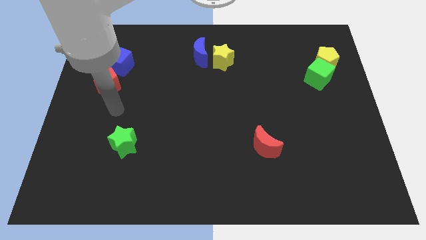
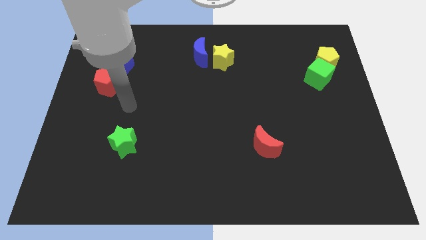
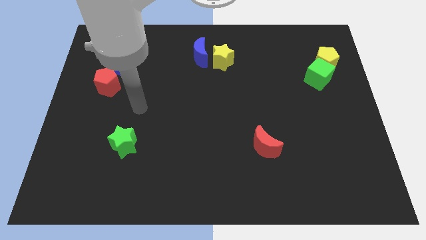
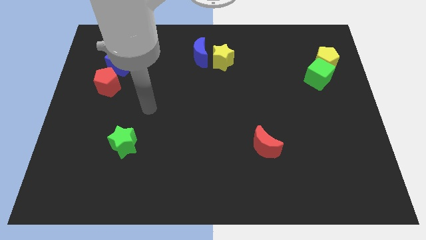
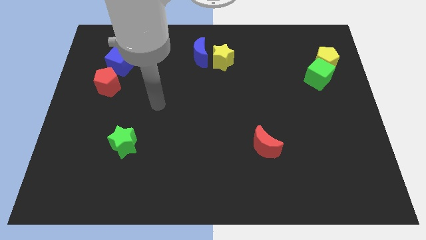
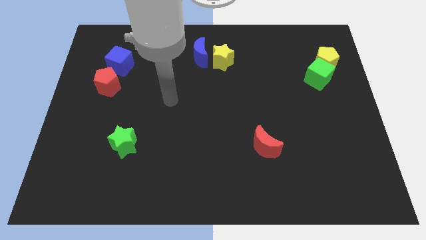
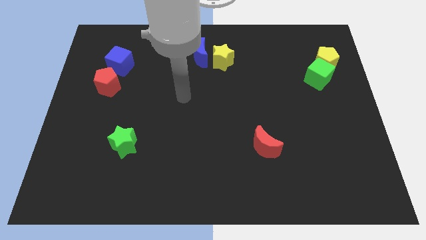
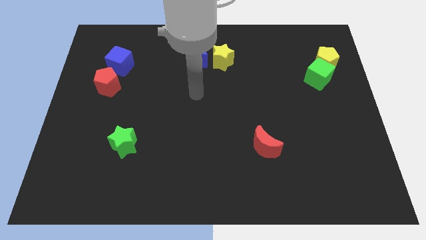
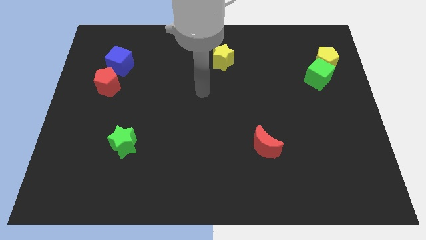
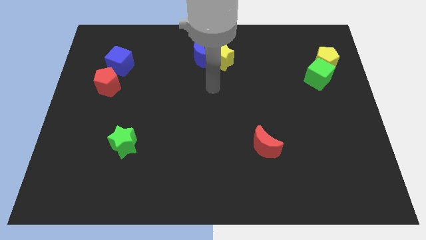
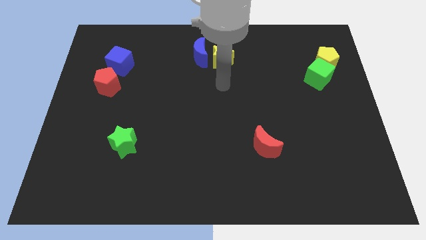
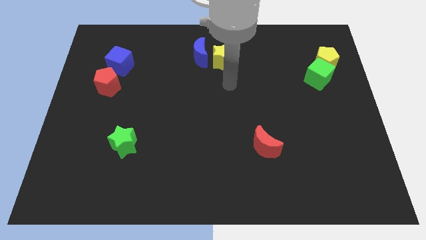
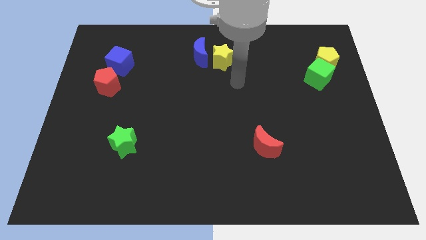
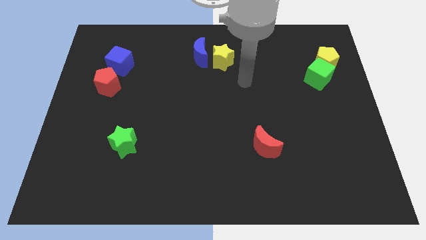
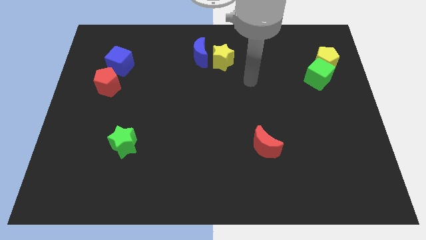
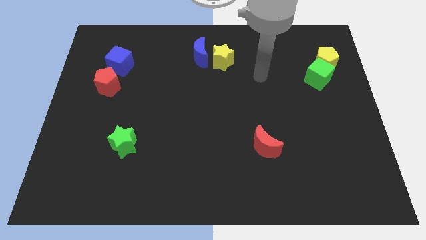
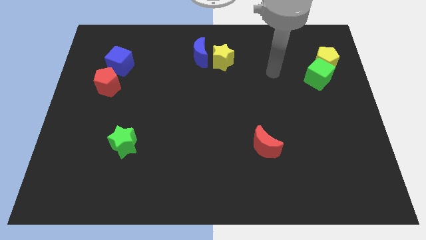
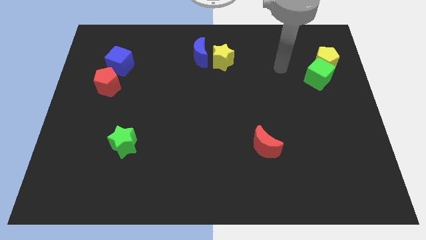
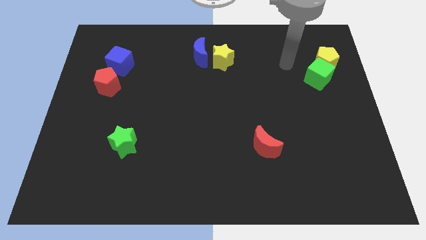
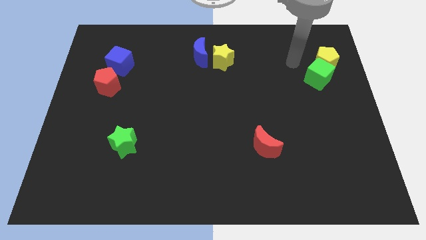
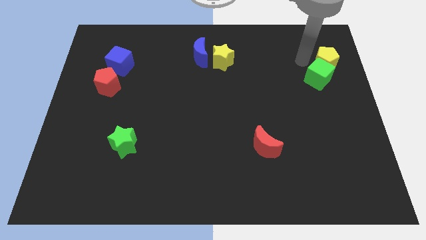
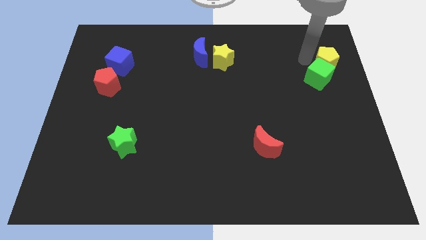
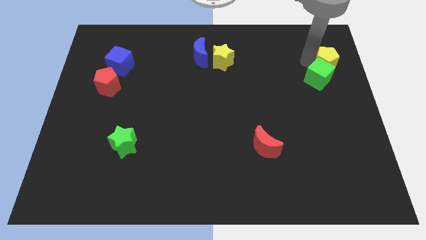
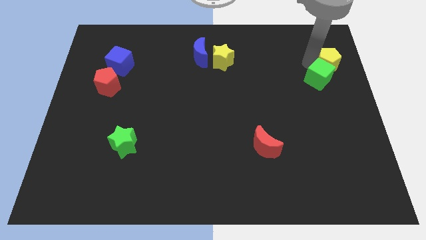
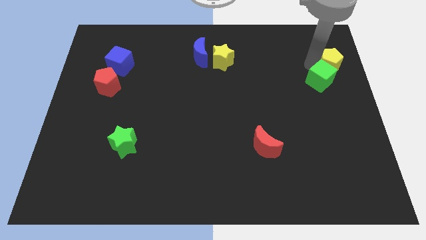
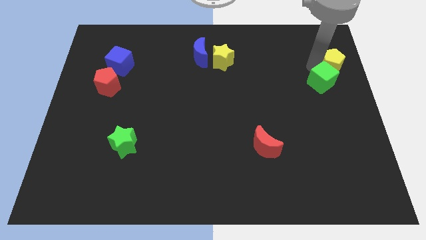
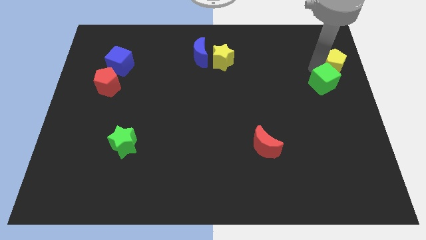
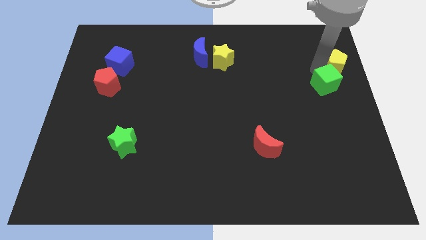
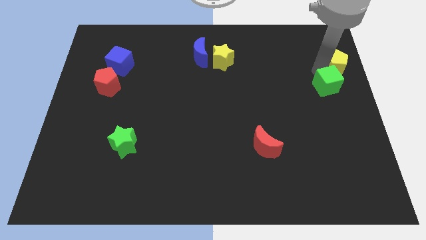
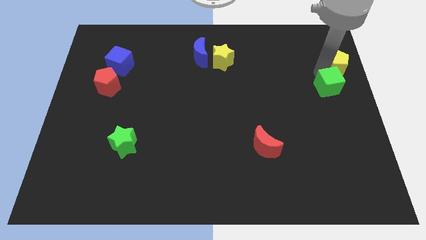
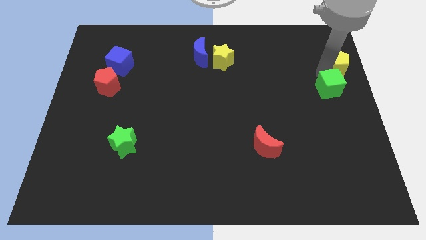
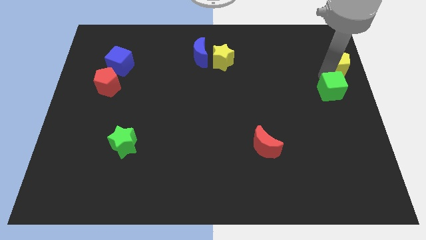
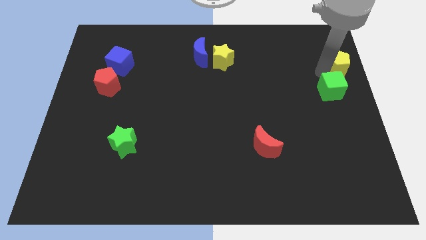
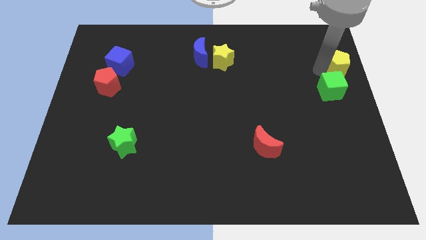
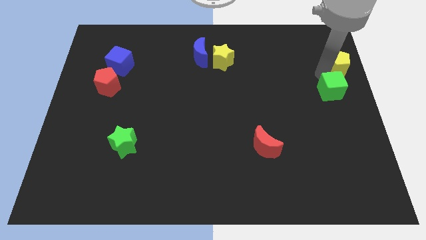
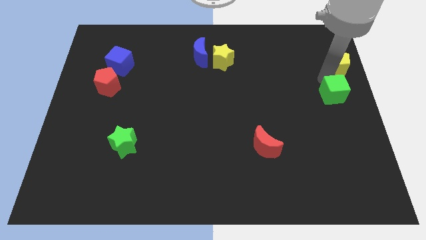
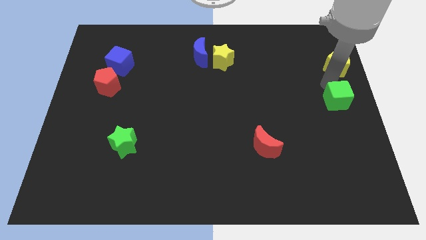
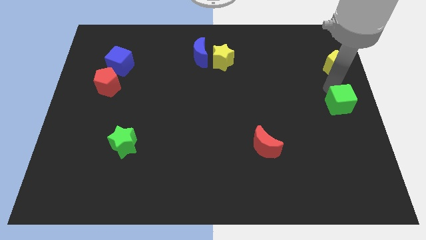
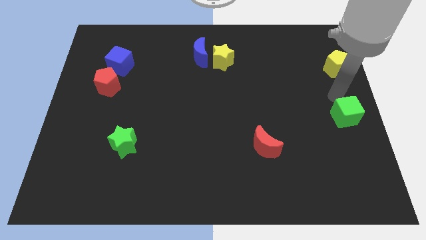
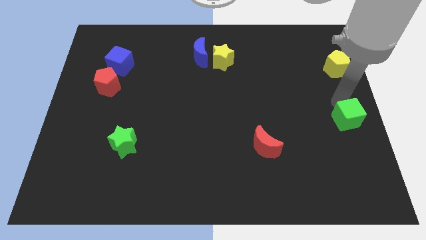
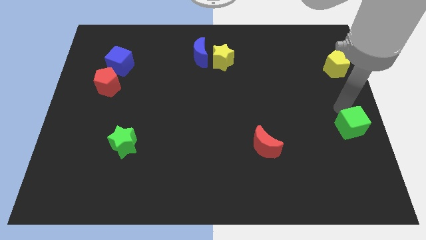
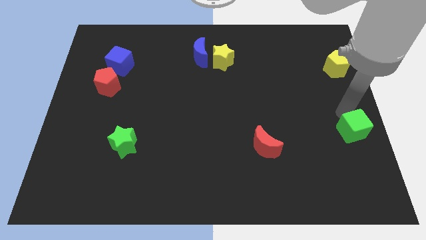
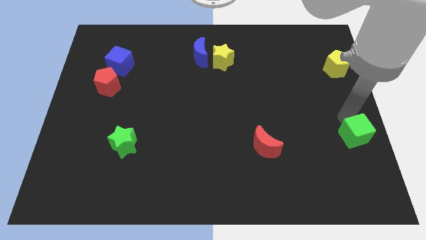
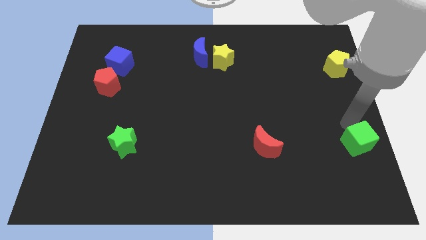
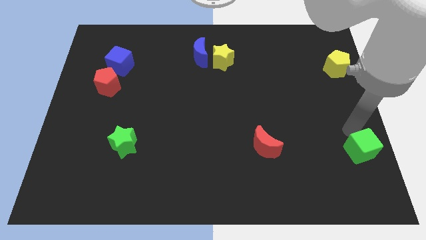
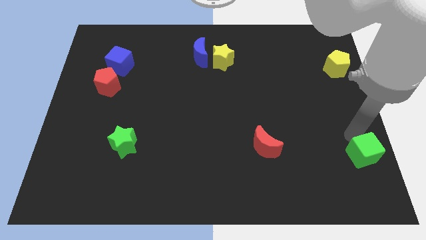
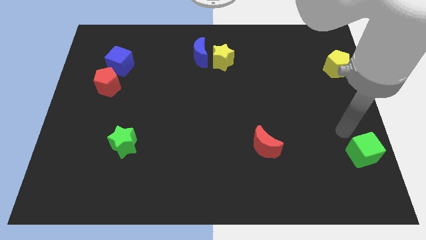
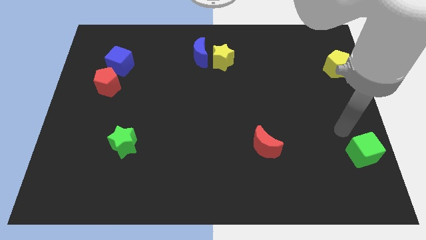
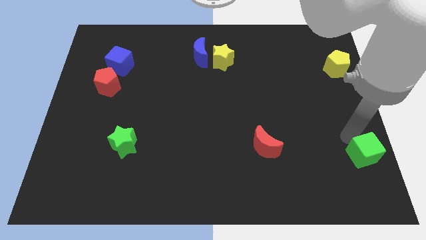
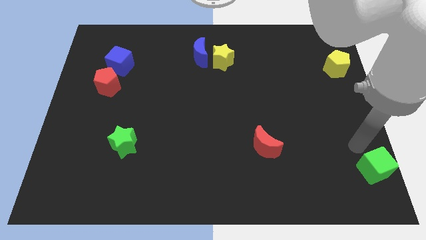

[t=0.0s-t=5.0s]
slide the green cube to the bottom right corner

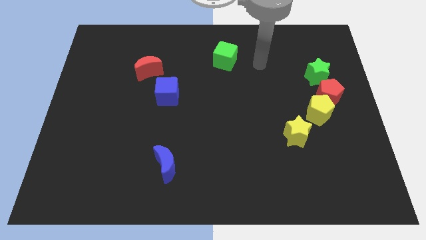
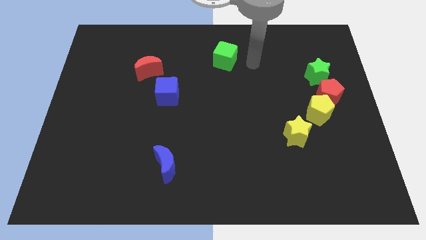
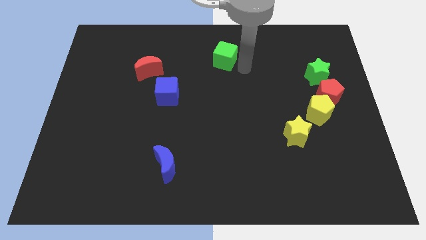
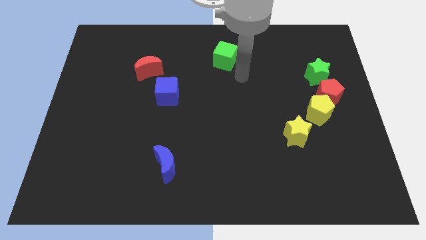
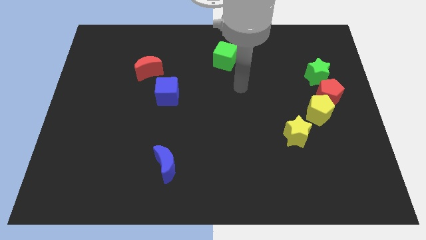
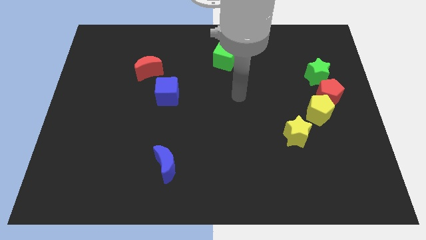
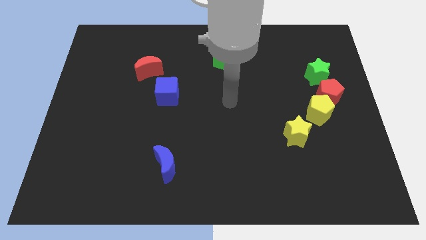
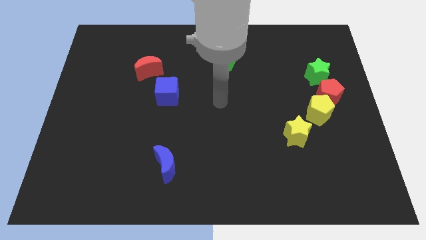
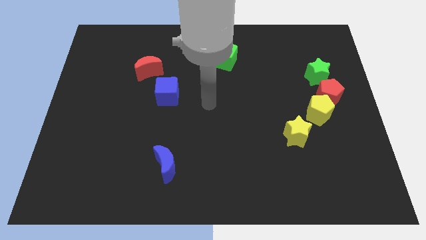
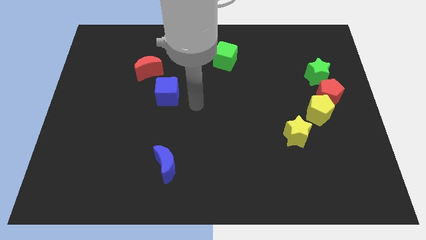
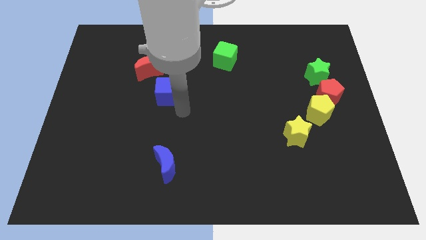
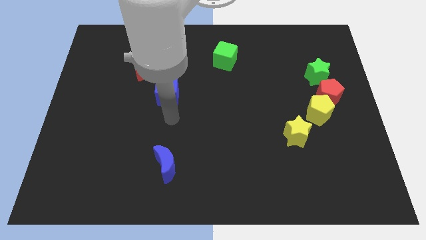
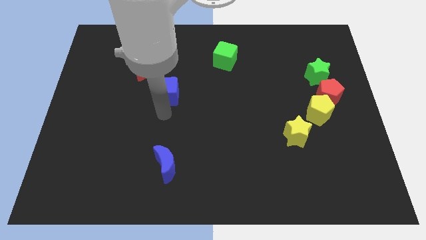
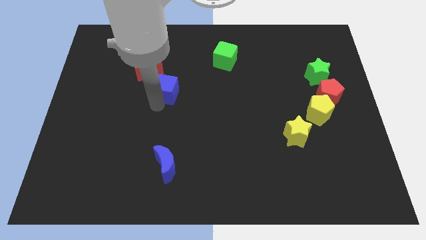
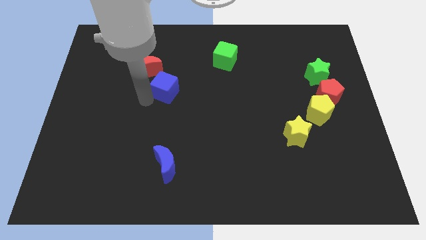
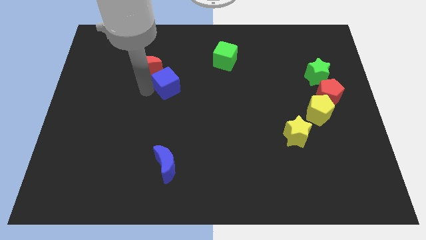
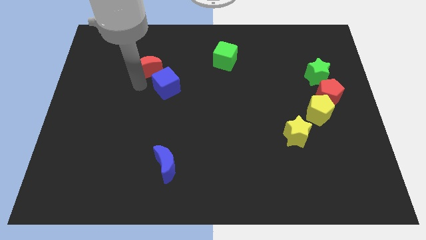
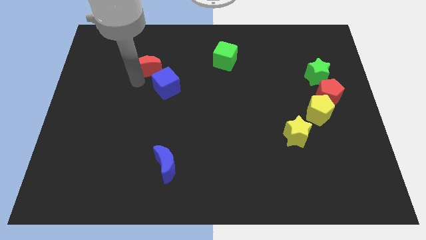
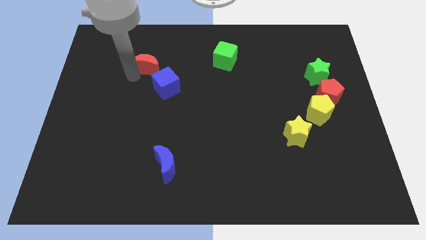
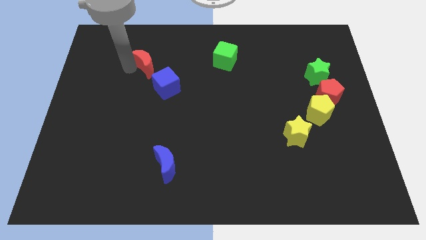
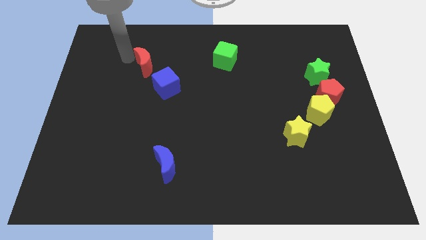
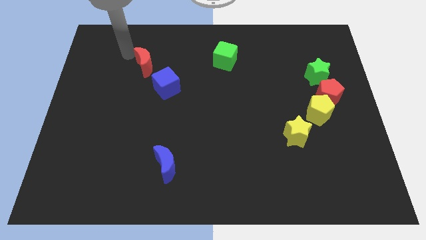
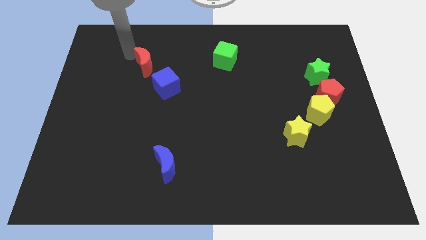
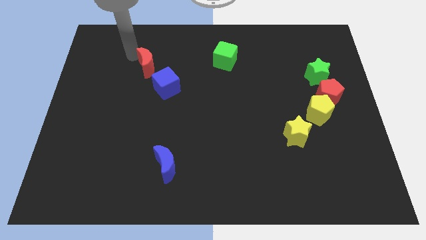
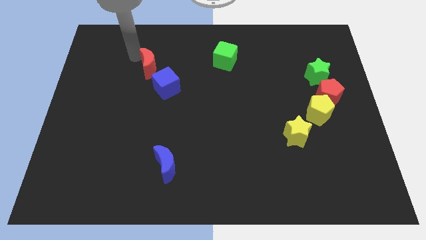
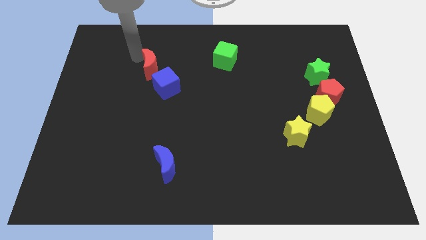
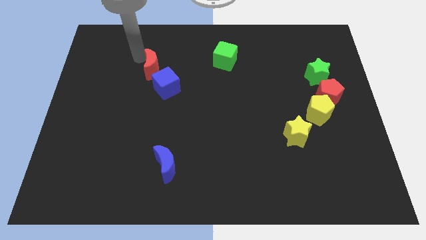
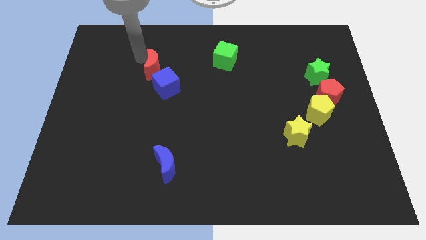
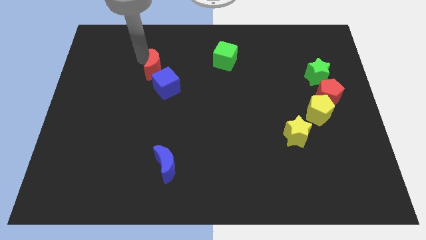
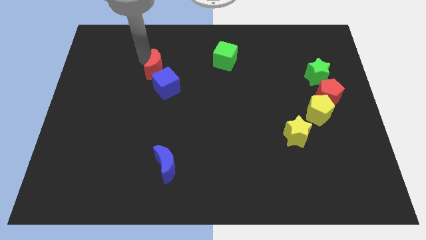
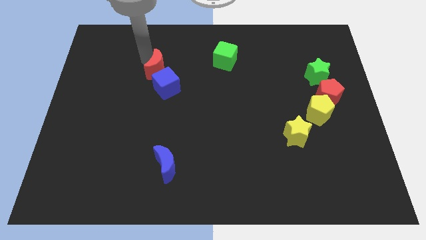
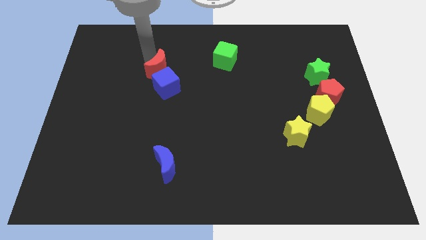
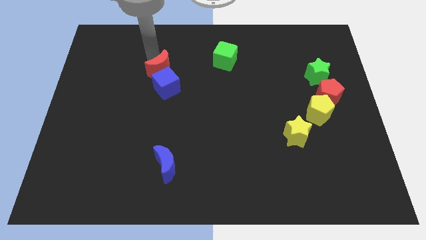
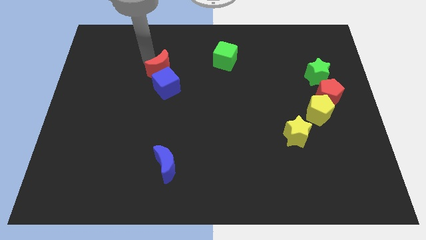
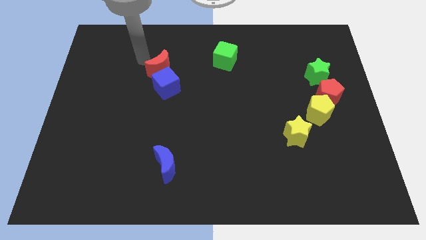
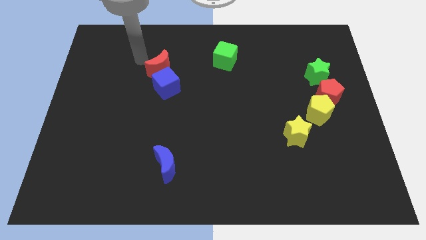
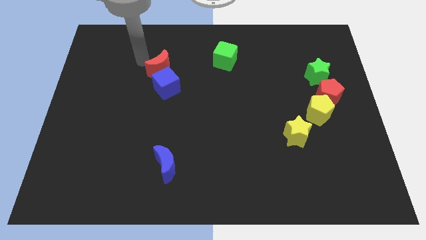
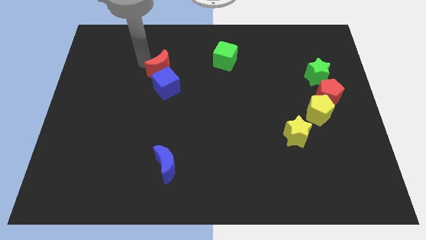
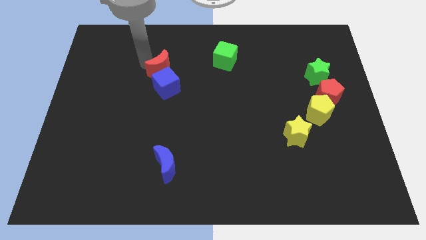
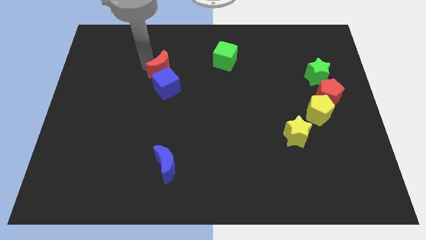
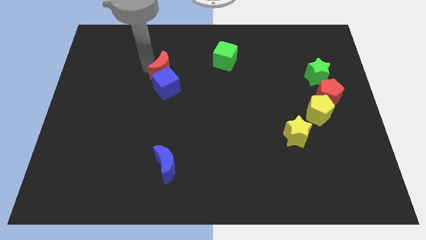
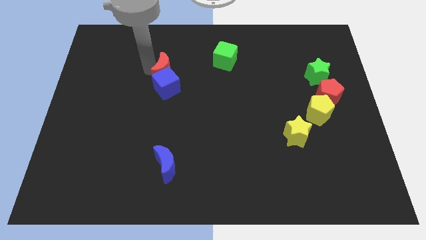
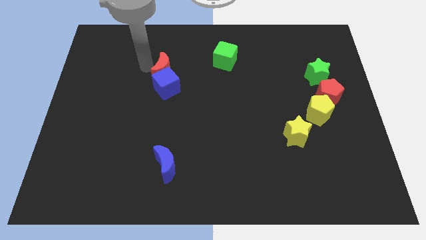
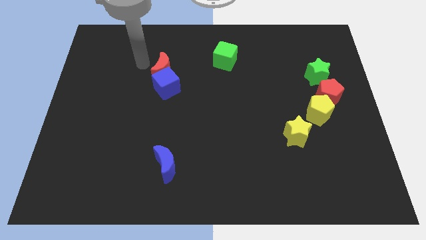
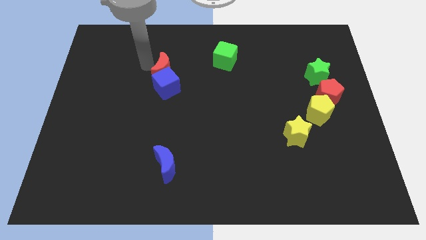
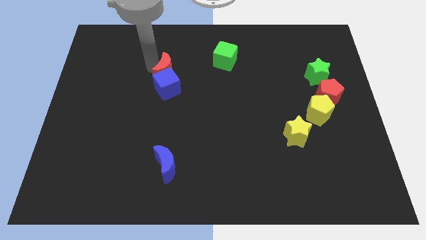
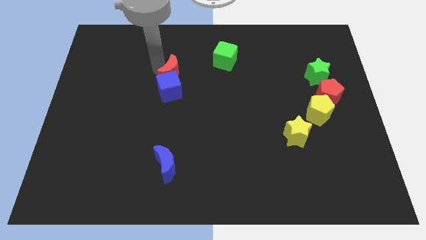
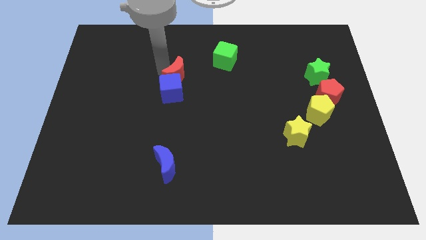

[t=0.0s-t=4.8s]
push the red moon to the middle of the board
